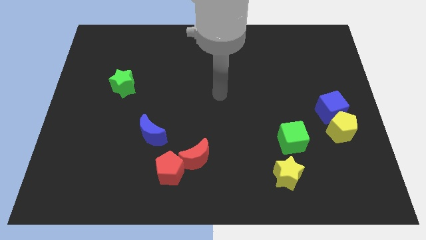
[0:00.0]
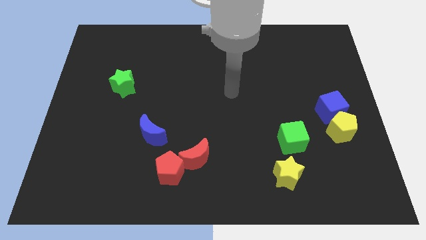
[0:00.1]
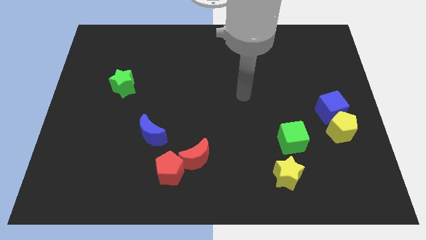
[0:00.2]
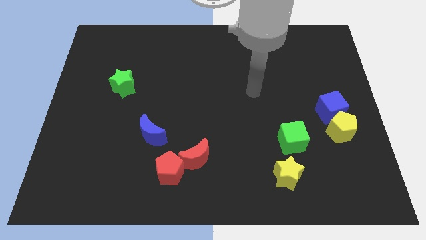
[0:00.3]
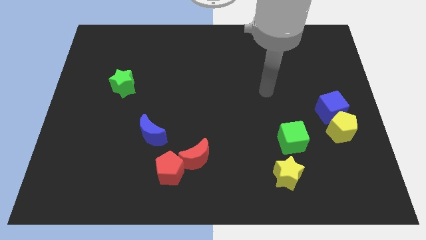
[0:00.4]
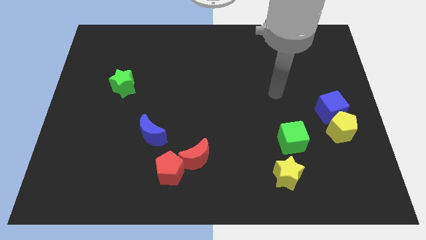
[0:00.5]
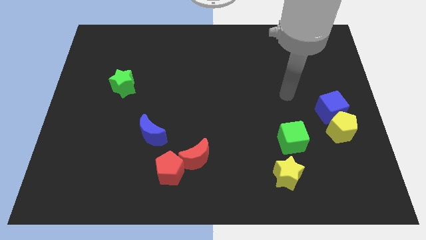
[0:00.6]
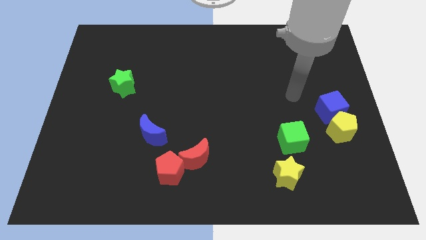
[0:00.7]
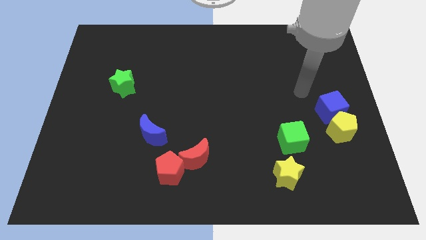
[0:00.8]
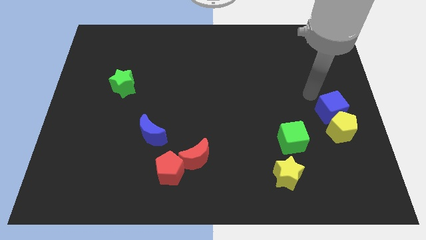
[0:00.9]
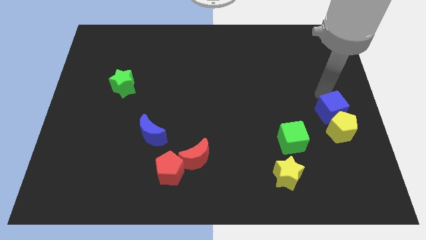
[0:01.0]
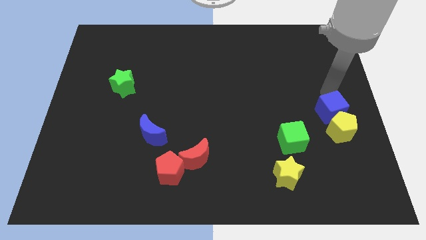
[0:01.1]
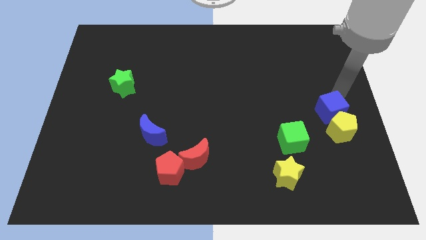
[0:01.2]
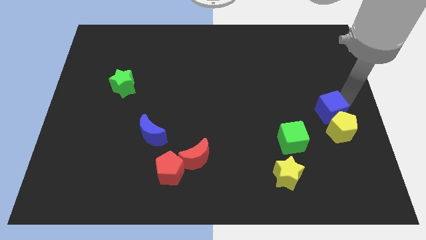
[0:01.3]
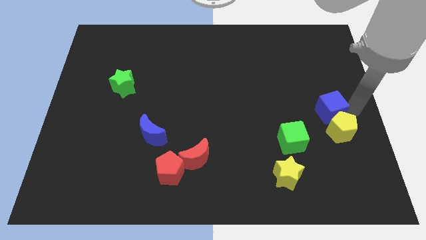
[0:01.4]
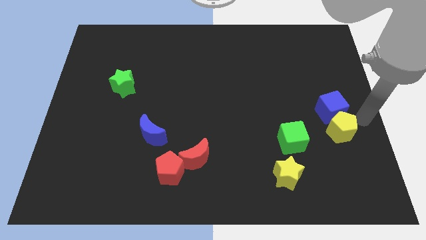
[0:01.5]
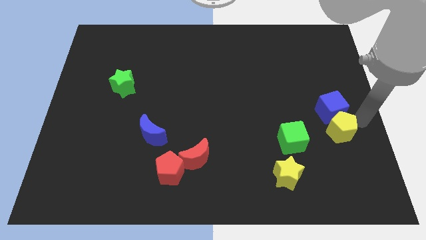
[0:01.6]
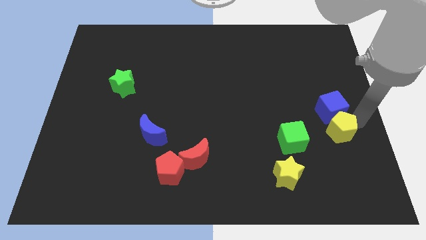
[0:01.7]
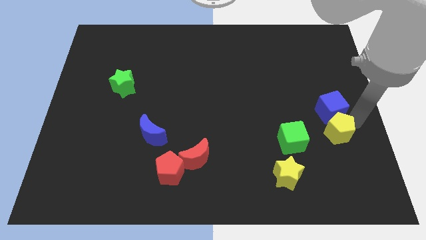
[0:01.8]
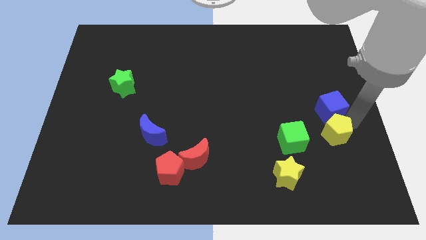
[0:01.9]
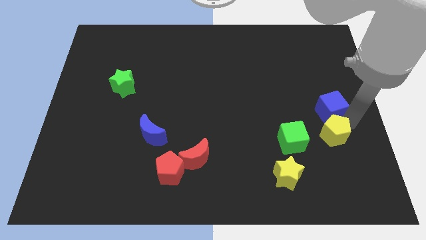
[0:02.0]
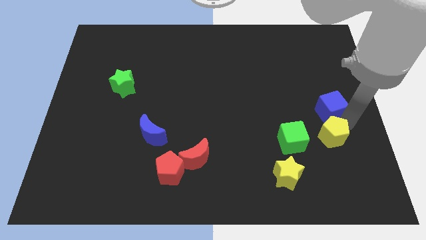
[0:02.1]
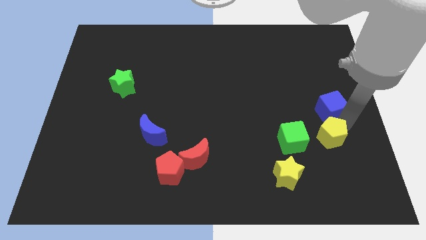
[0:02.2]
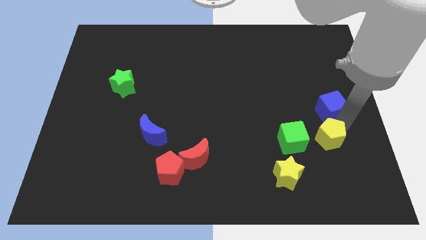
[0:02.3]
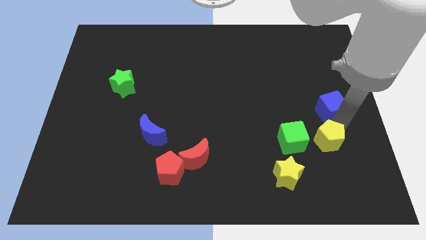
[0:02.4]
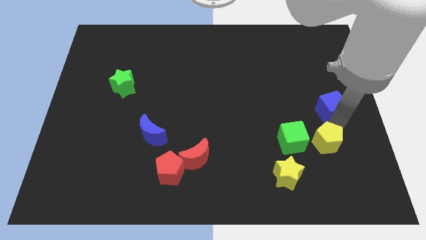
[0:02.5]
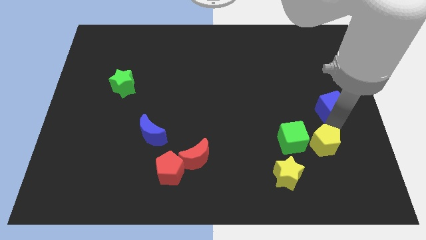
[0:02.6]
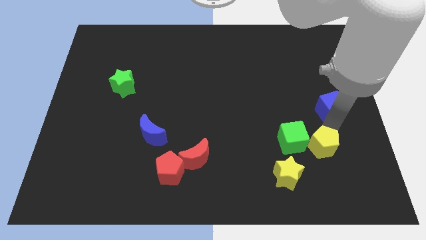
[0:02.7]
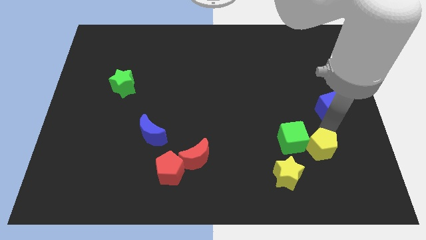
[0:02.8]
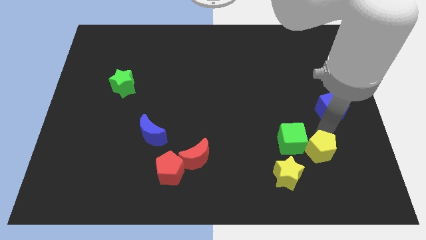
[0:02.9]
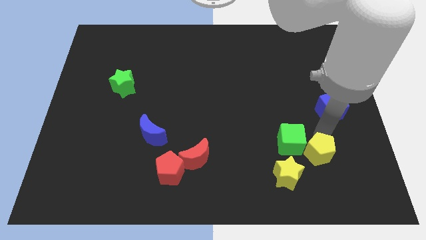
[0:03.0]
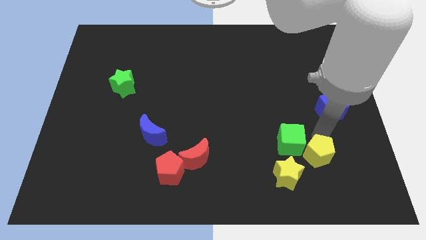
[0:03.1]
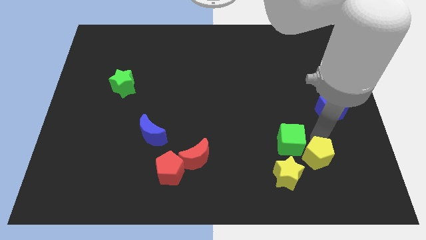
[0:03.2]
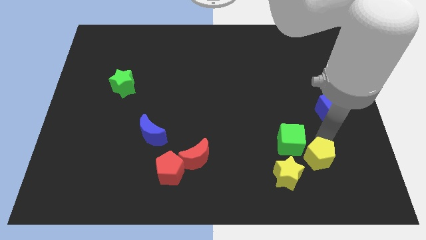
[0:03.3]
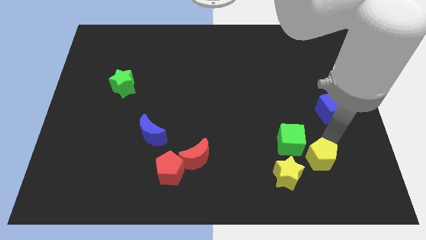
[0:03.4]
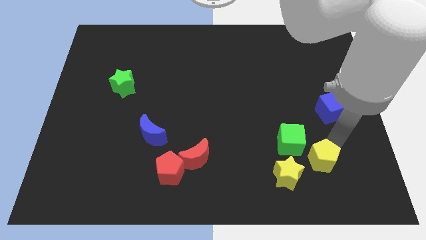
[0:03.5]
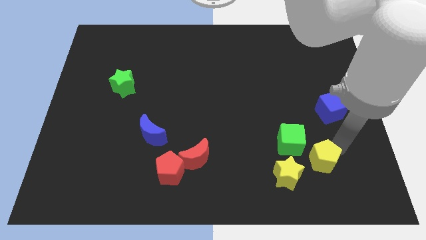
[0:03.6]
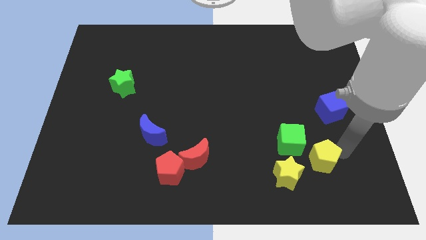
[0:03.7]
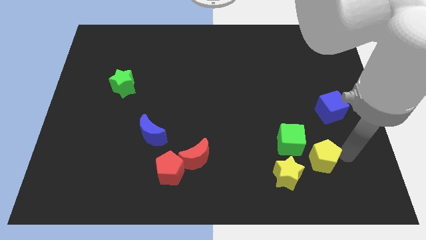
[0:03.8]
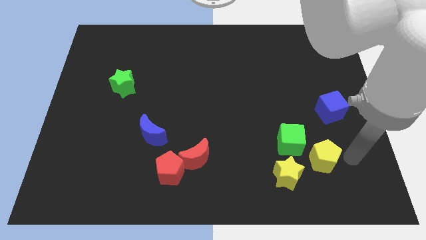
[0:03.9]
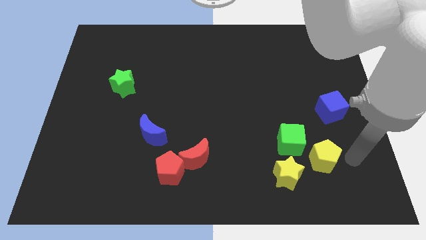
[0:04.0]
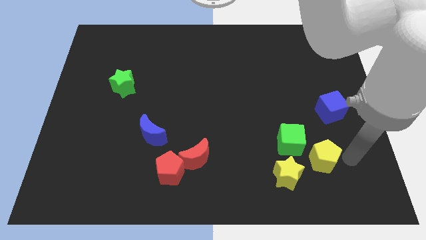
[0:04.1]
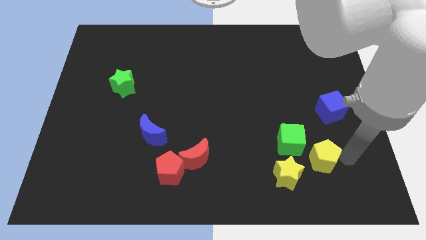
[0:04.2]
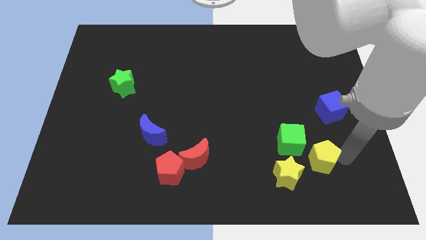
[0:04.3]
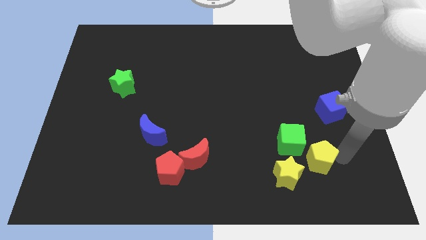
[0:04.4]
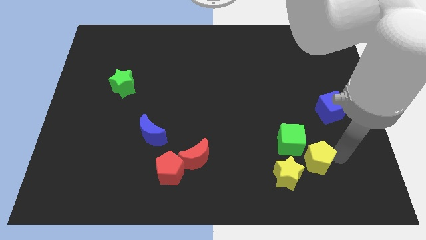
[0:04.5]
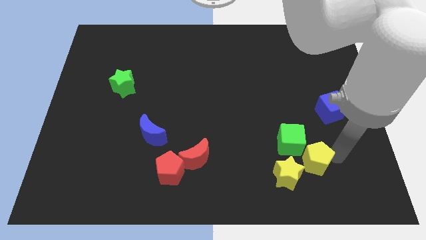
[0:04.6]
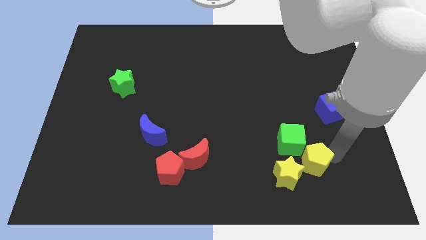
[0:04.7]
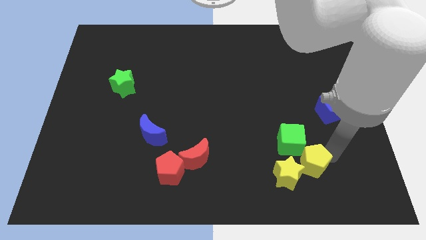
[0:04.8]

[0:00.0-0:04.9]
move the yellow pentagon close to the yellow star

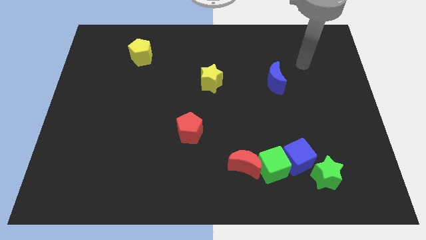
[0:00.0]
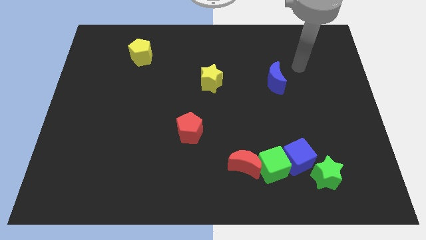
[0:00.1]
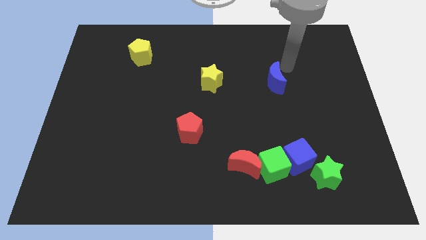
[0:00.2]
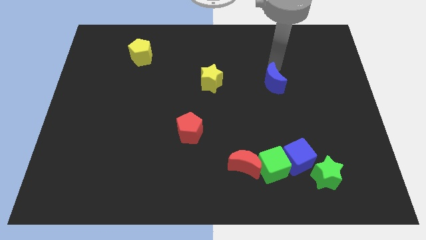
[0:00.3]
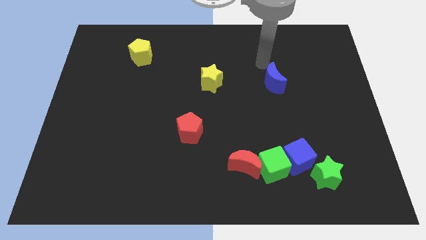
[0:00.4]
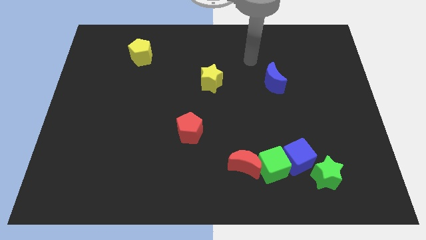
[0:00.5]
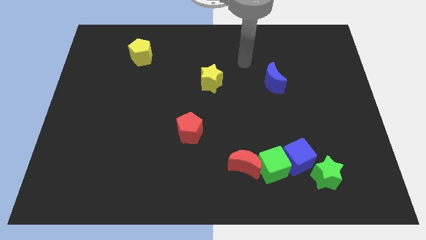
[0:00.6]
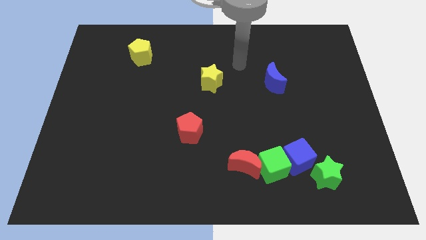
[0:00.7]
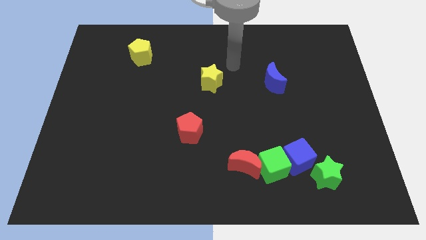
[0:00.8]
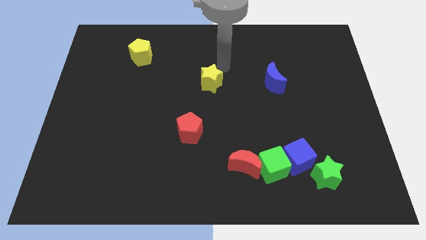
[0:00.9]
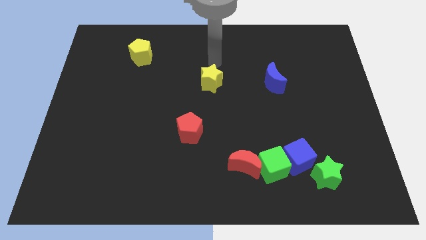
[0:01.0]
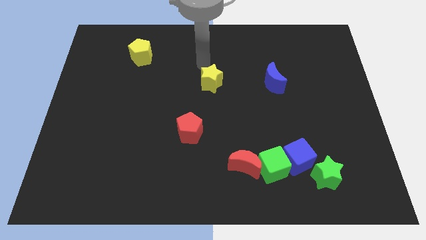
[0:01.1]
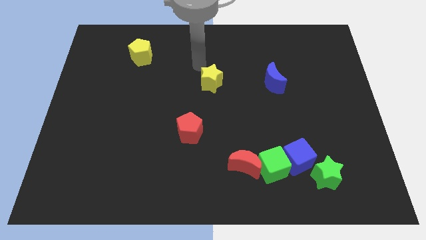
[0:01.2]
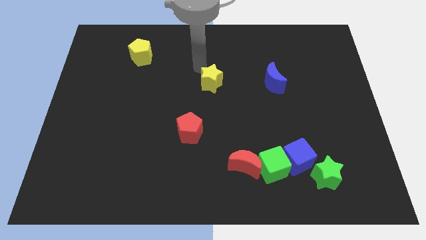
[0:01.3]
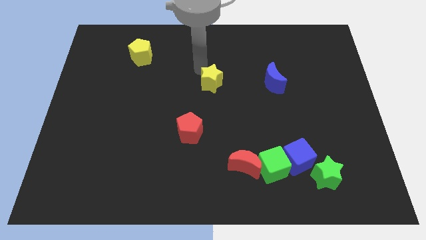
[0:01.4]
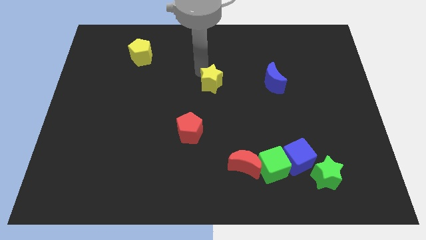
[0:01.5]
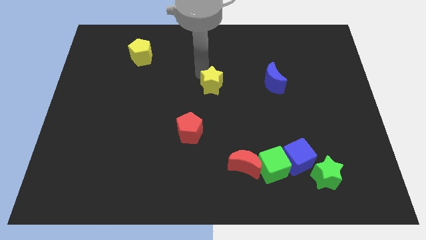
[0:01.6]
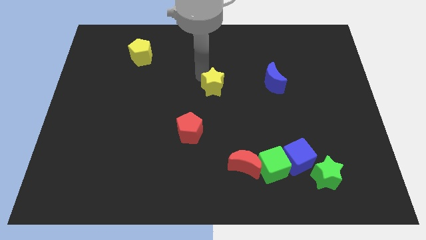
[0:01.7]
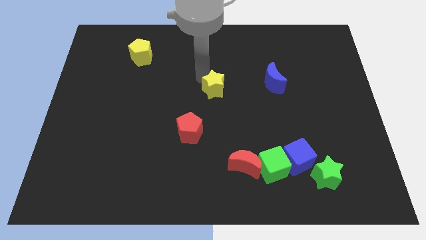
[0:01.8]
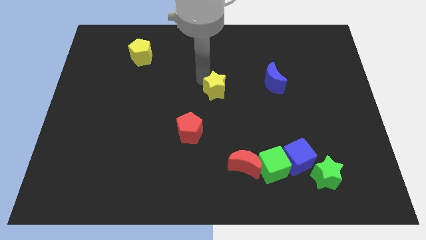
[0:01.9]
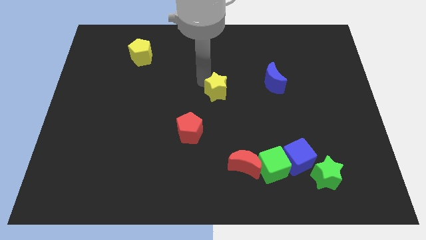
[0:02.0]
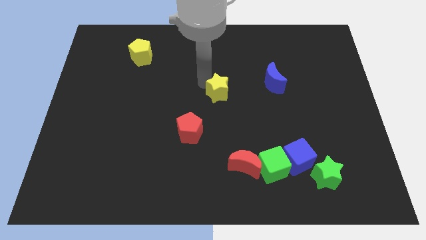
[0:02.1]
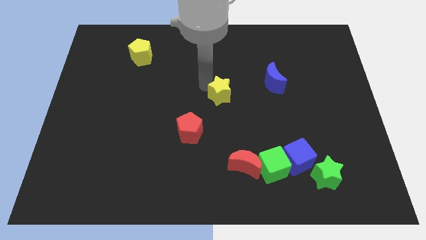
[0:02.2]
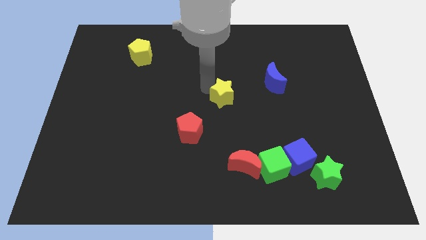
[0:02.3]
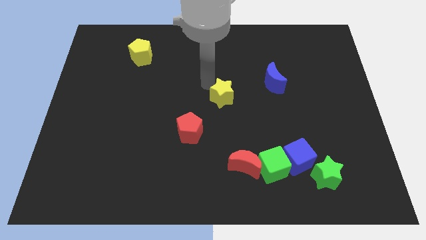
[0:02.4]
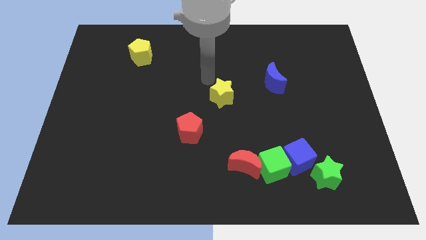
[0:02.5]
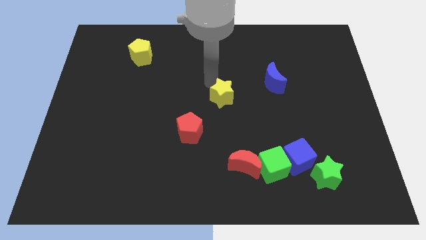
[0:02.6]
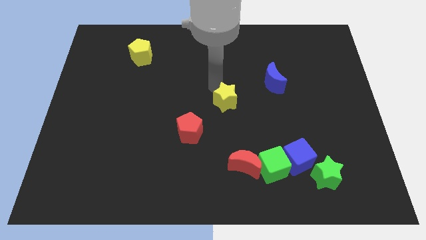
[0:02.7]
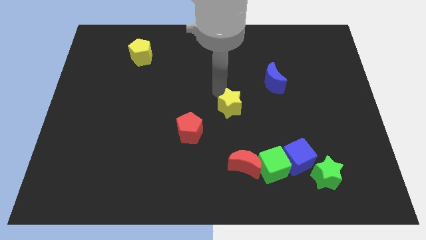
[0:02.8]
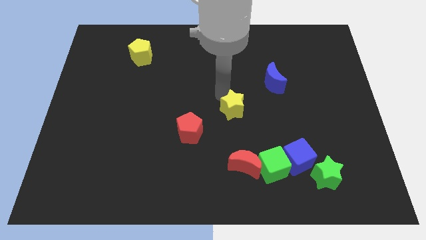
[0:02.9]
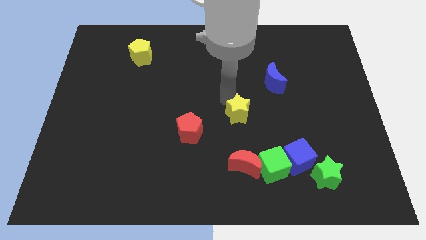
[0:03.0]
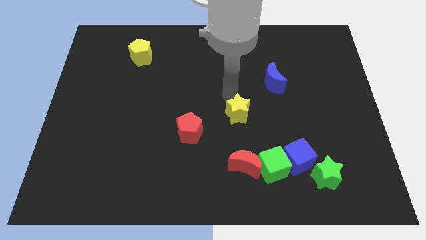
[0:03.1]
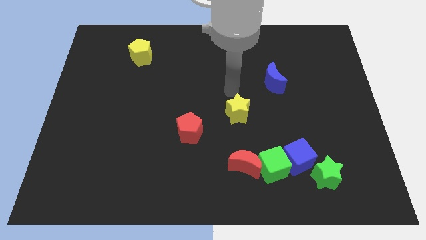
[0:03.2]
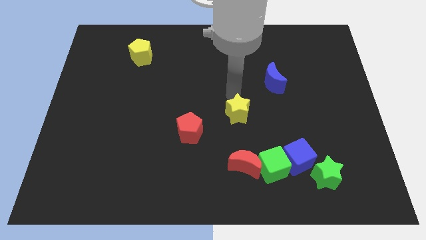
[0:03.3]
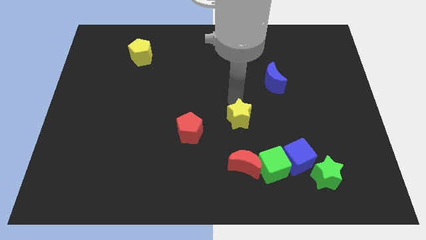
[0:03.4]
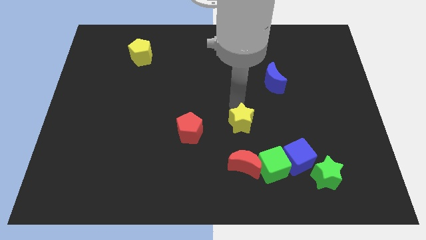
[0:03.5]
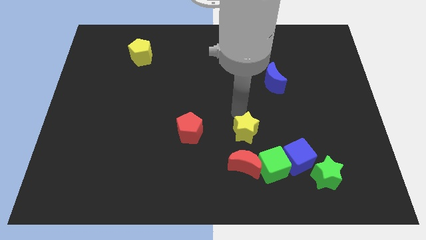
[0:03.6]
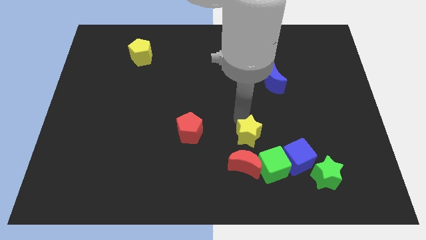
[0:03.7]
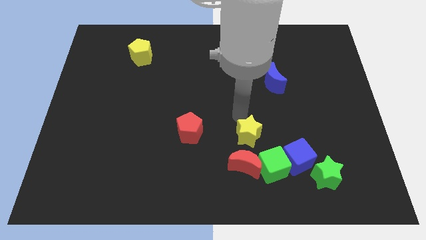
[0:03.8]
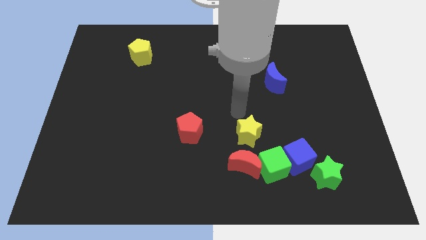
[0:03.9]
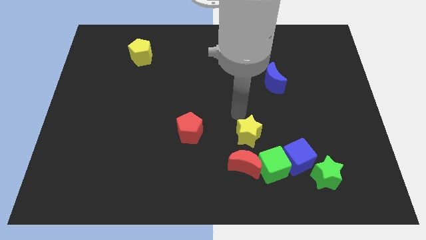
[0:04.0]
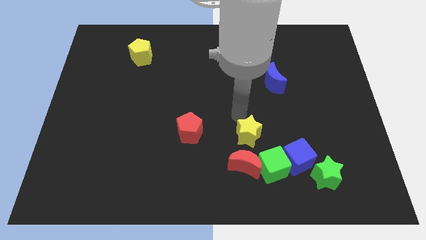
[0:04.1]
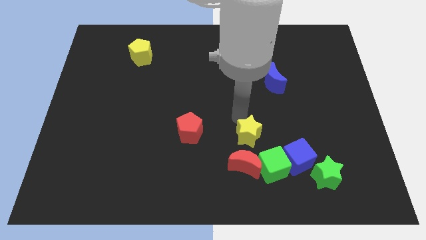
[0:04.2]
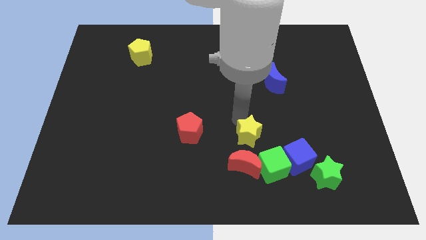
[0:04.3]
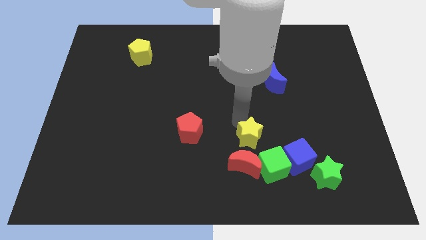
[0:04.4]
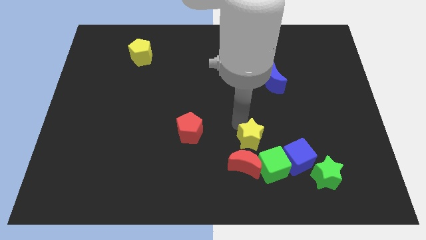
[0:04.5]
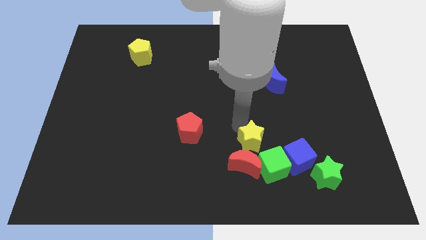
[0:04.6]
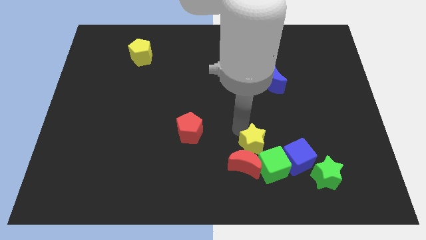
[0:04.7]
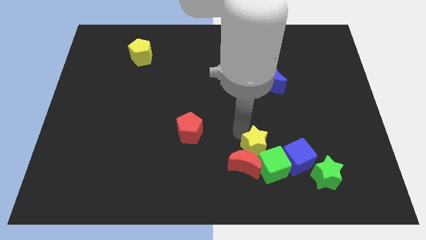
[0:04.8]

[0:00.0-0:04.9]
move the yellow star to the green cube
